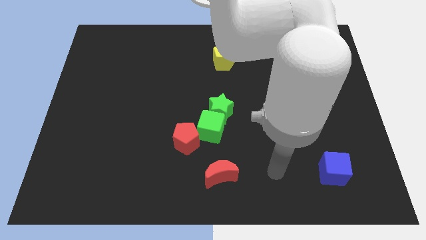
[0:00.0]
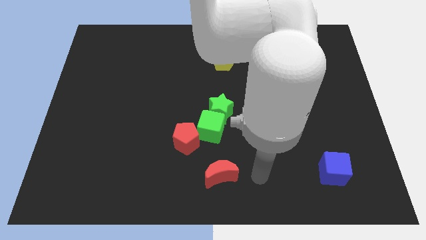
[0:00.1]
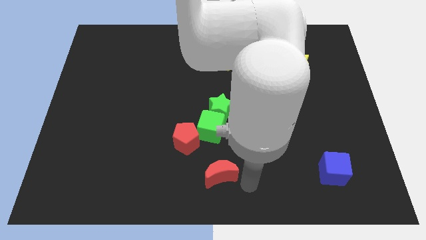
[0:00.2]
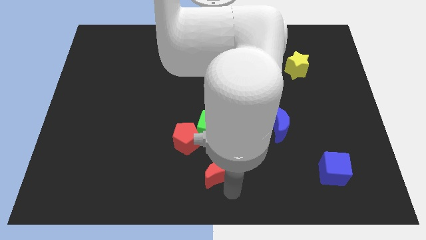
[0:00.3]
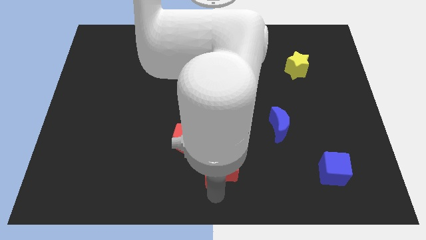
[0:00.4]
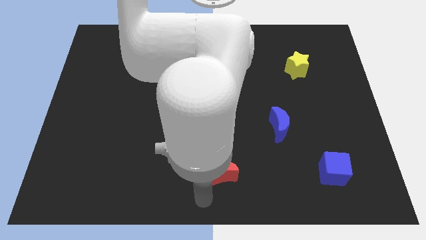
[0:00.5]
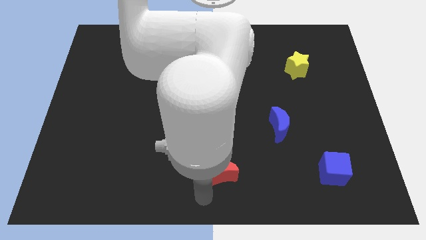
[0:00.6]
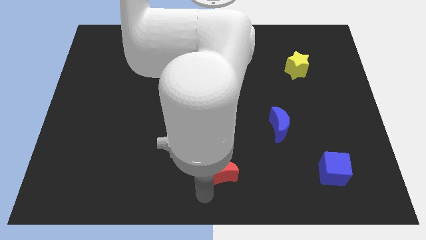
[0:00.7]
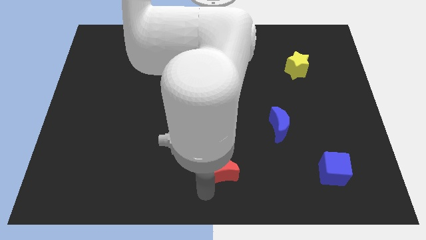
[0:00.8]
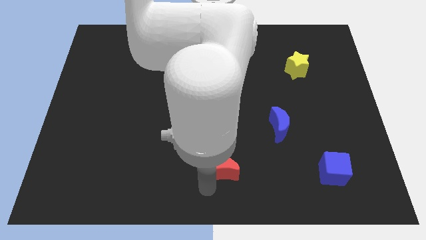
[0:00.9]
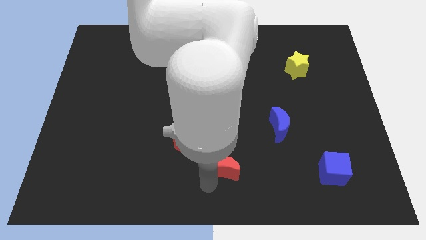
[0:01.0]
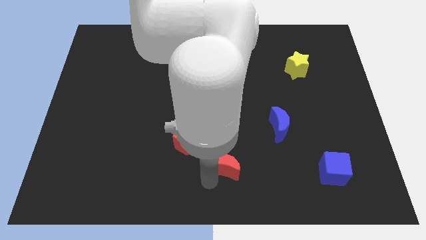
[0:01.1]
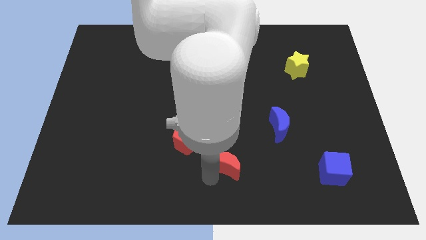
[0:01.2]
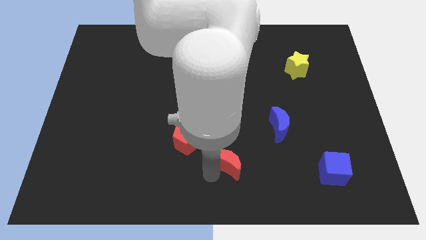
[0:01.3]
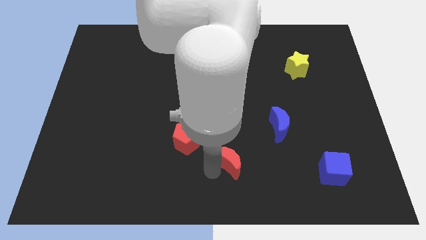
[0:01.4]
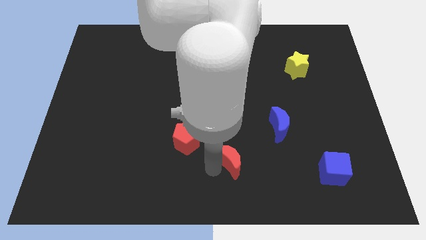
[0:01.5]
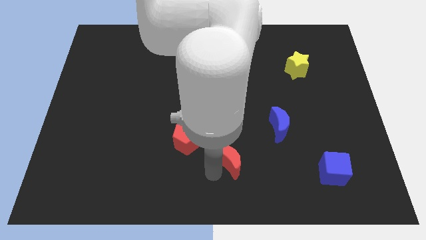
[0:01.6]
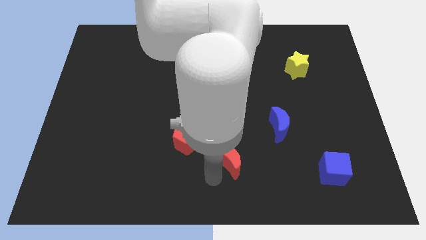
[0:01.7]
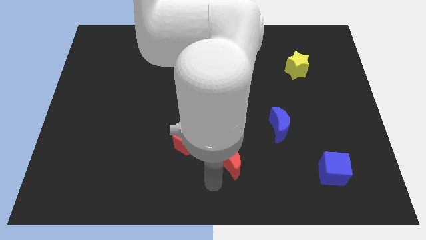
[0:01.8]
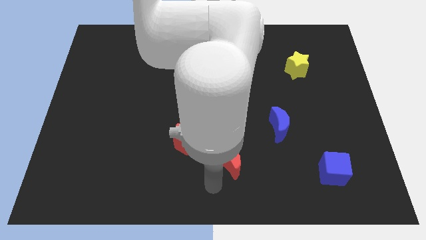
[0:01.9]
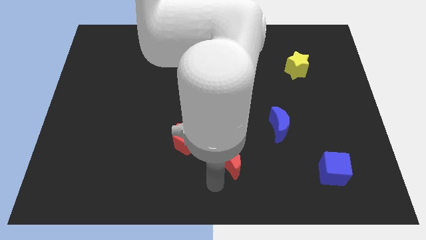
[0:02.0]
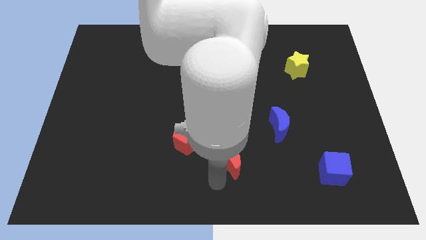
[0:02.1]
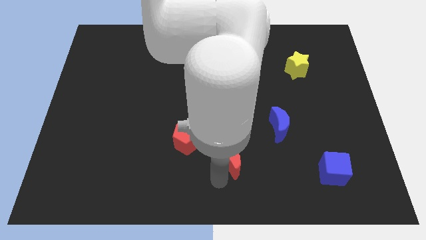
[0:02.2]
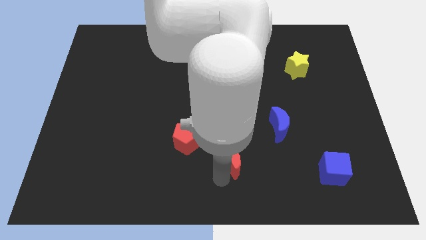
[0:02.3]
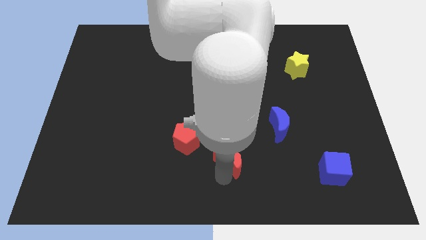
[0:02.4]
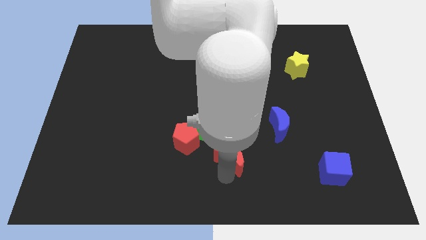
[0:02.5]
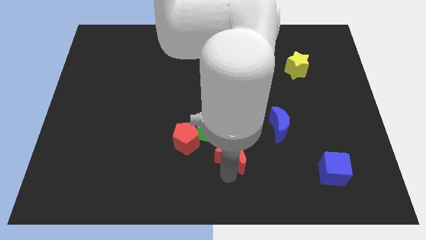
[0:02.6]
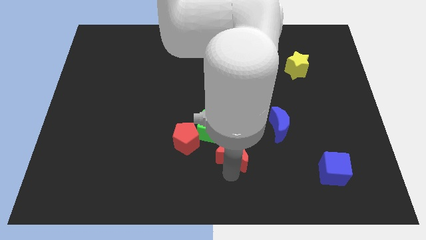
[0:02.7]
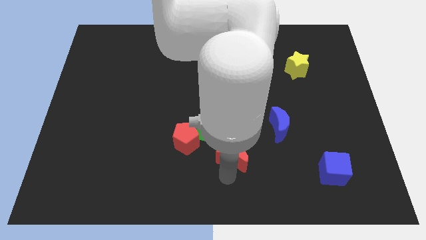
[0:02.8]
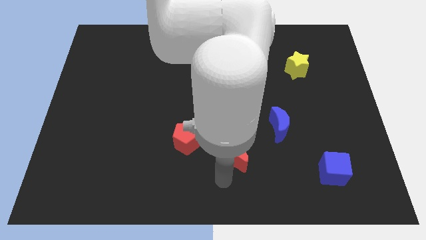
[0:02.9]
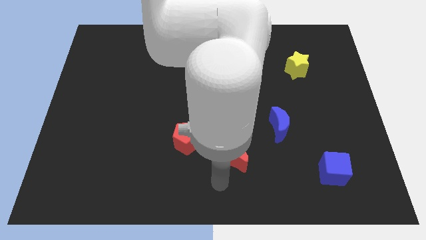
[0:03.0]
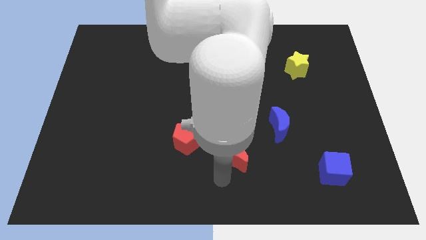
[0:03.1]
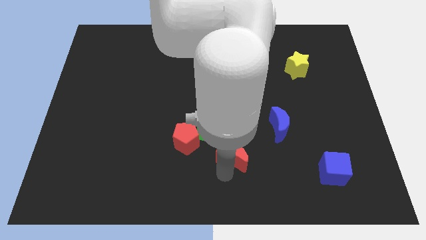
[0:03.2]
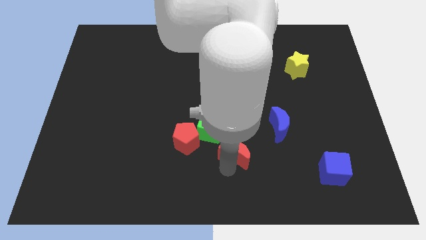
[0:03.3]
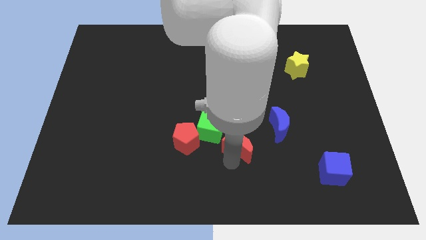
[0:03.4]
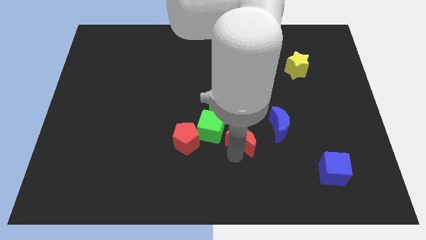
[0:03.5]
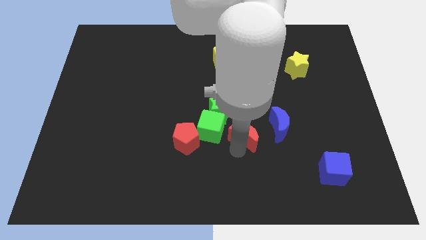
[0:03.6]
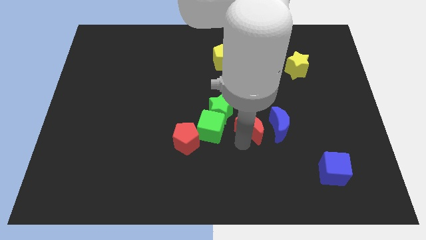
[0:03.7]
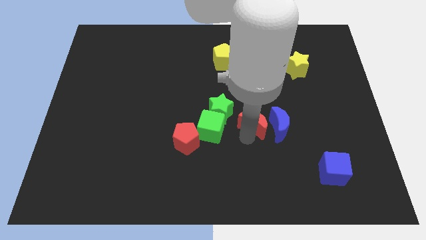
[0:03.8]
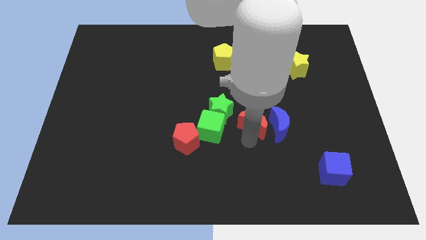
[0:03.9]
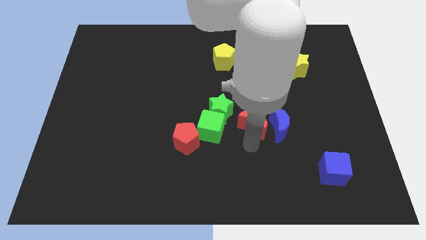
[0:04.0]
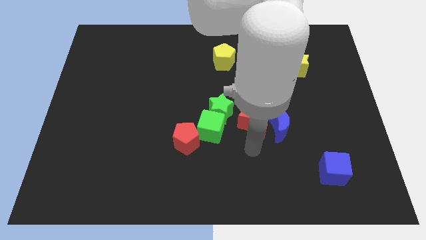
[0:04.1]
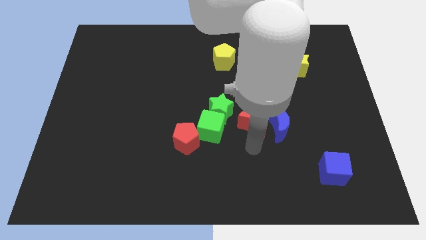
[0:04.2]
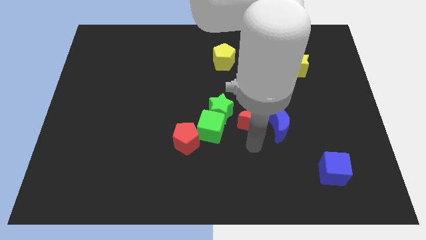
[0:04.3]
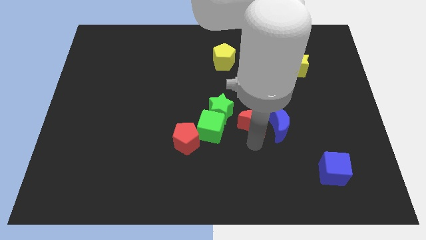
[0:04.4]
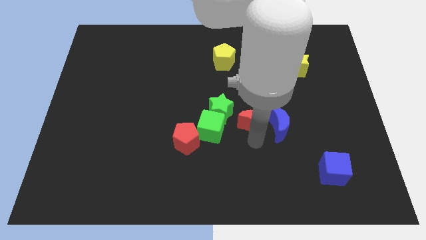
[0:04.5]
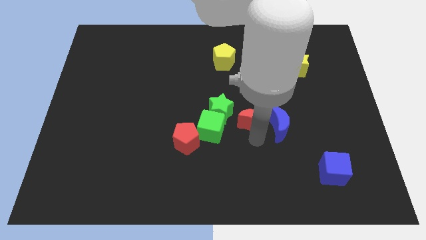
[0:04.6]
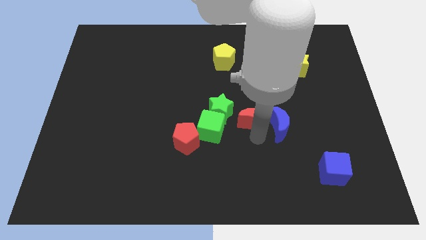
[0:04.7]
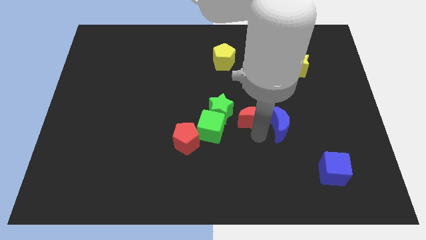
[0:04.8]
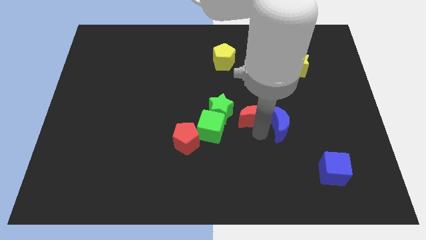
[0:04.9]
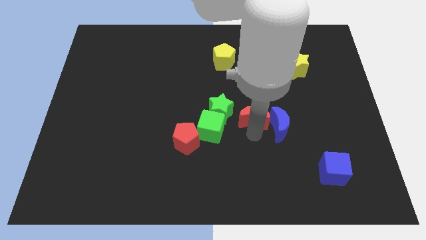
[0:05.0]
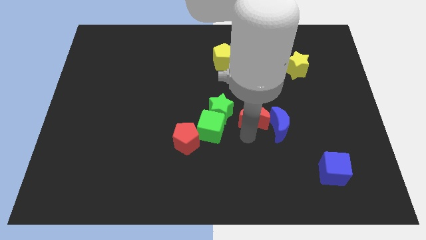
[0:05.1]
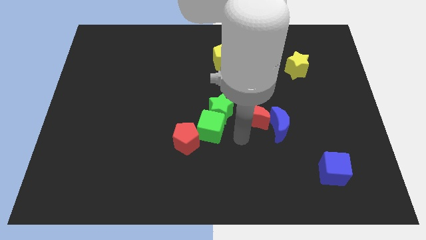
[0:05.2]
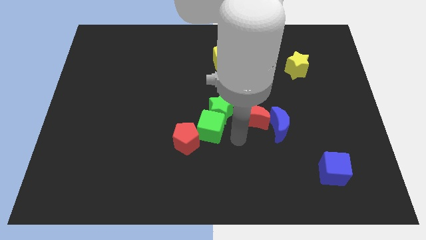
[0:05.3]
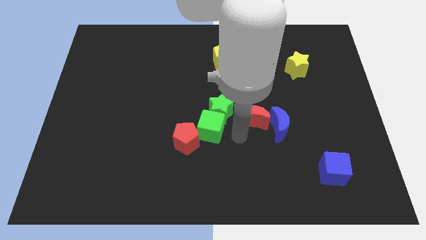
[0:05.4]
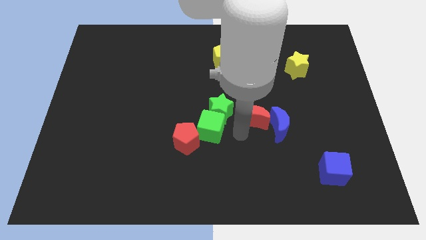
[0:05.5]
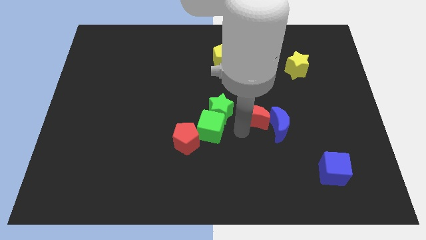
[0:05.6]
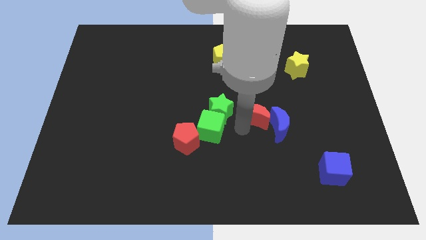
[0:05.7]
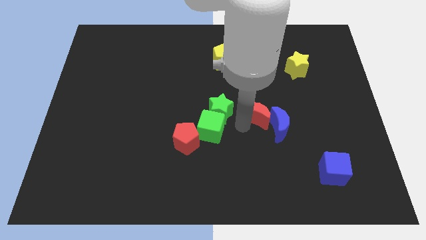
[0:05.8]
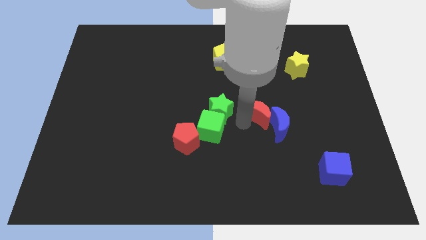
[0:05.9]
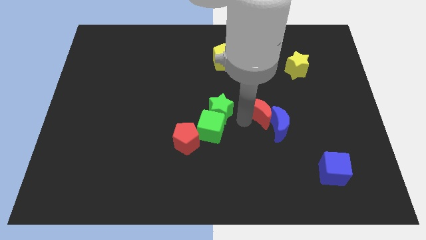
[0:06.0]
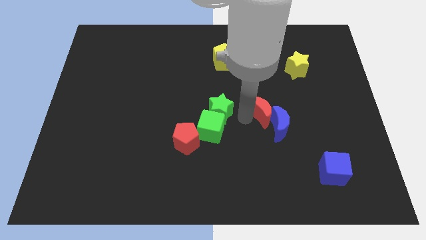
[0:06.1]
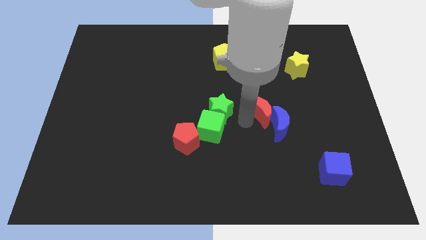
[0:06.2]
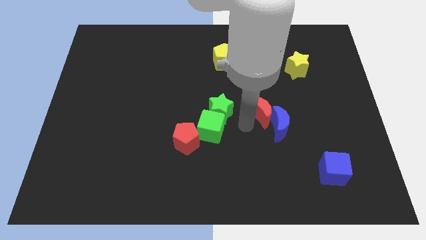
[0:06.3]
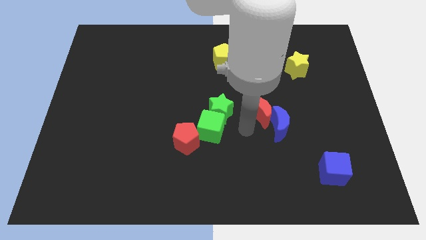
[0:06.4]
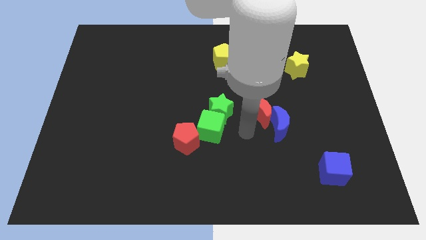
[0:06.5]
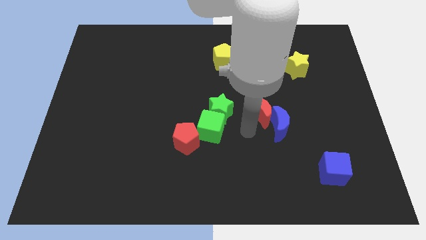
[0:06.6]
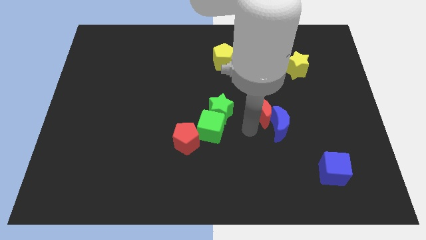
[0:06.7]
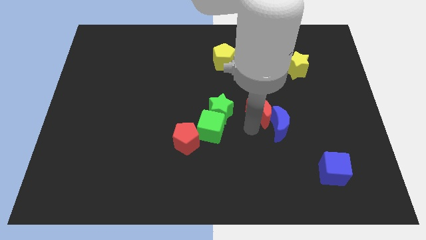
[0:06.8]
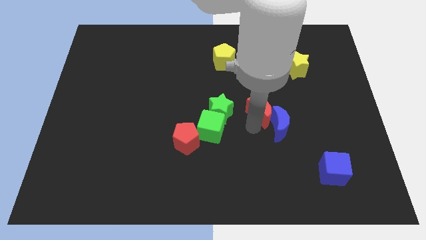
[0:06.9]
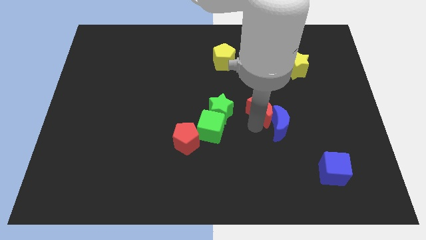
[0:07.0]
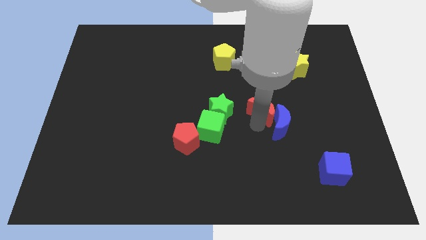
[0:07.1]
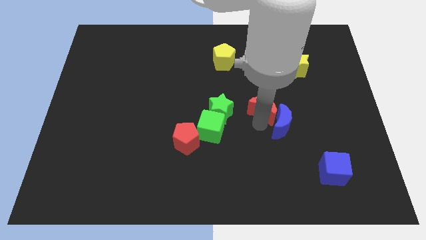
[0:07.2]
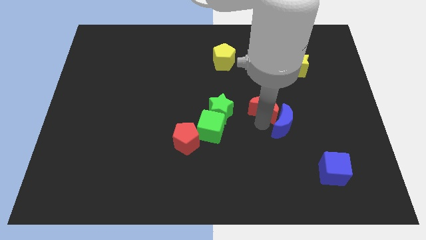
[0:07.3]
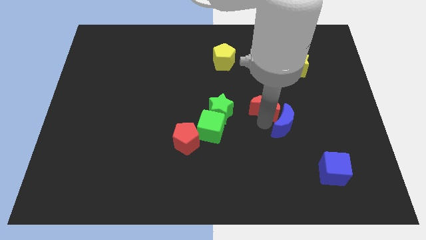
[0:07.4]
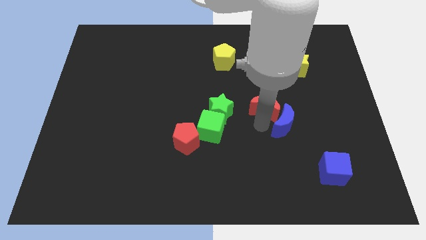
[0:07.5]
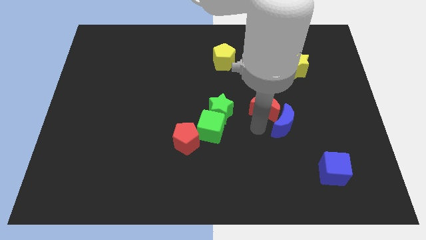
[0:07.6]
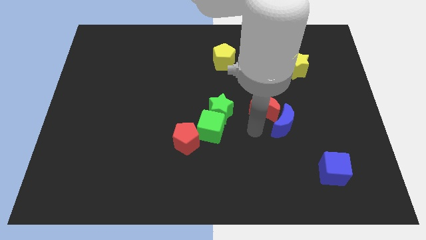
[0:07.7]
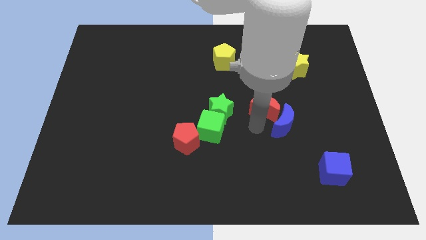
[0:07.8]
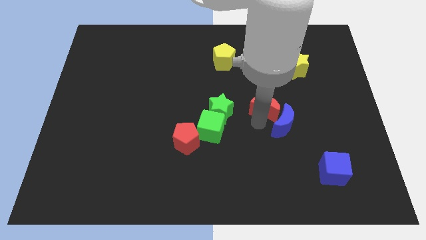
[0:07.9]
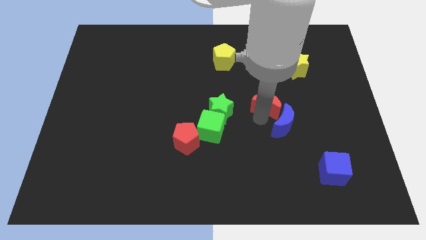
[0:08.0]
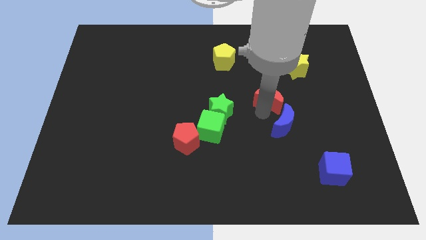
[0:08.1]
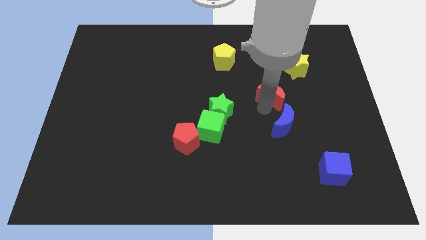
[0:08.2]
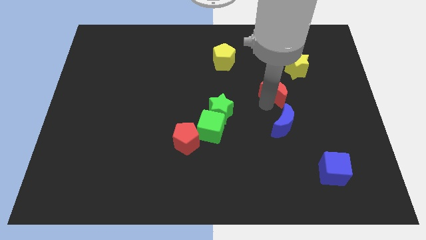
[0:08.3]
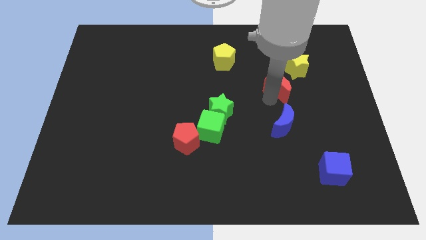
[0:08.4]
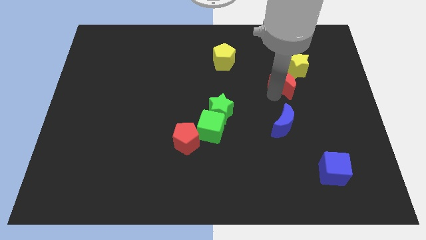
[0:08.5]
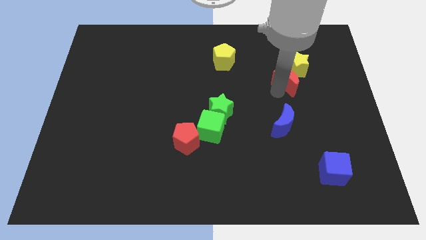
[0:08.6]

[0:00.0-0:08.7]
push the red moon next to the yellow star
